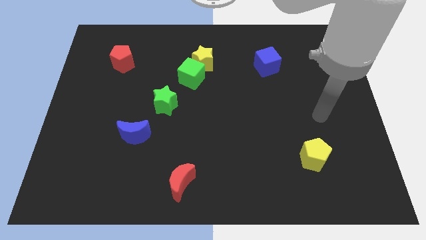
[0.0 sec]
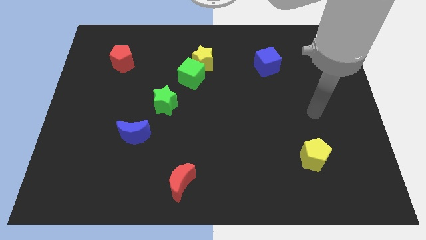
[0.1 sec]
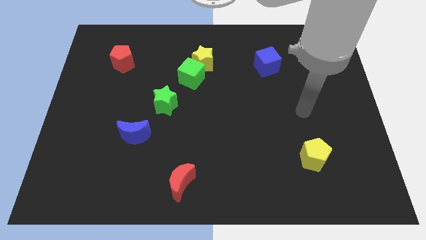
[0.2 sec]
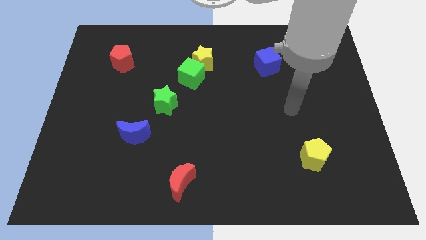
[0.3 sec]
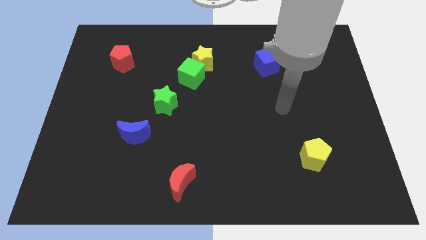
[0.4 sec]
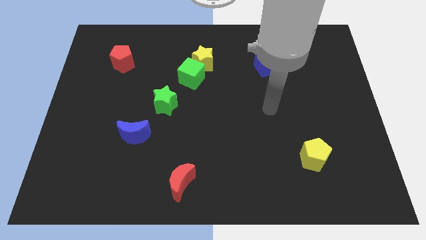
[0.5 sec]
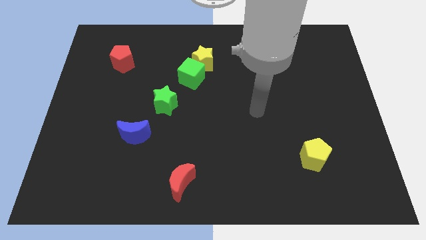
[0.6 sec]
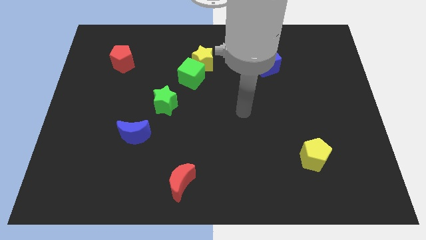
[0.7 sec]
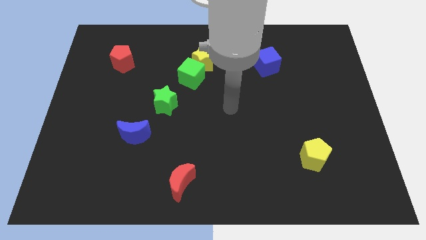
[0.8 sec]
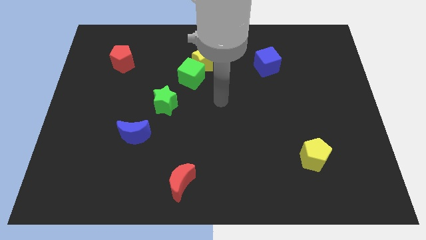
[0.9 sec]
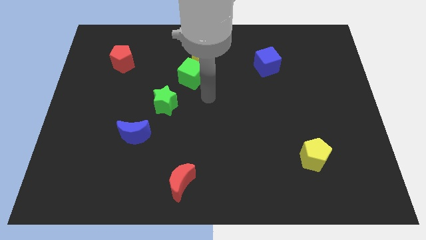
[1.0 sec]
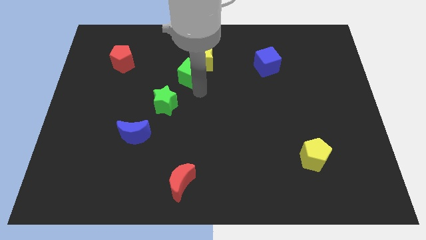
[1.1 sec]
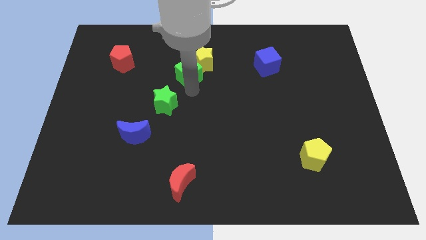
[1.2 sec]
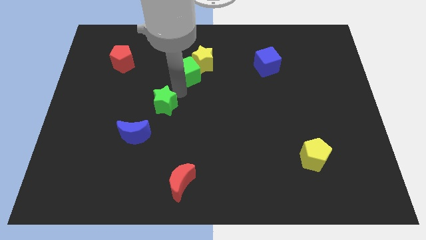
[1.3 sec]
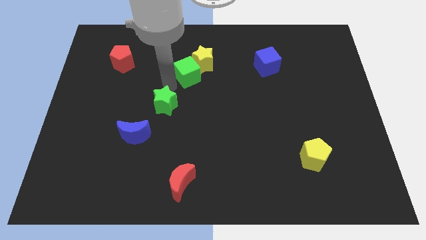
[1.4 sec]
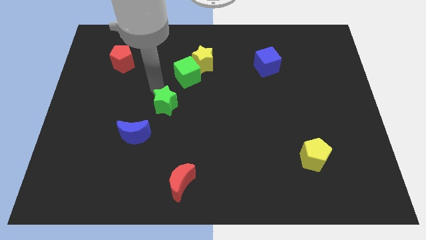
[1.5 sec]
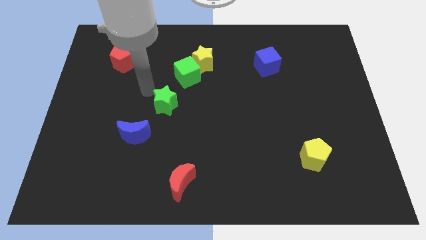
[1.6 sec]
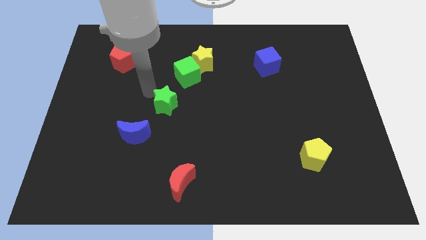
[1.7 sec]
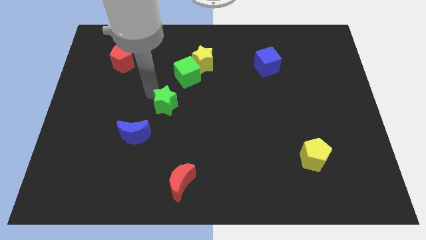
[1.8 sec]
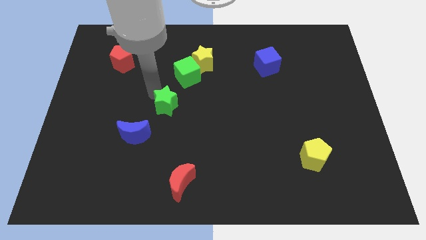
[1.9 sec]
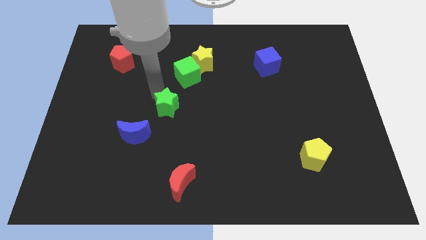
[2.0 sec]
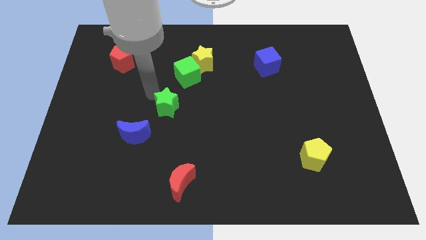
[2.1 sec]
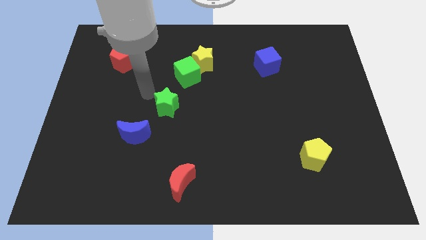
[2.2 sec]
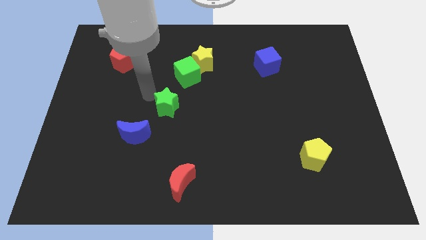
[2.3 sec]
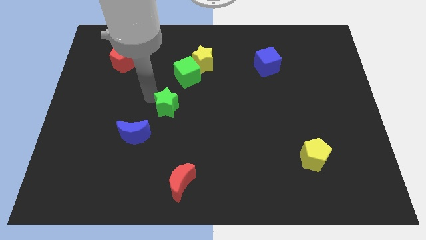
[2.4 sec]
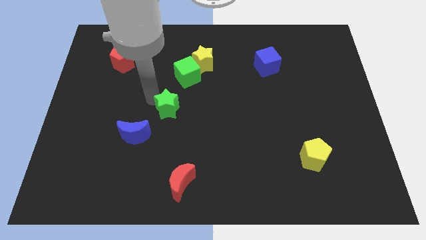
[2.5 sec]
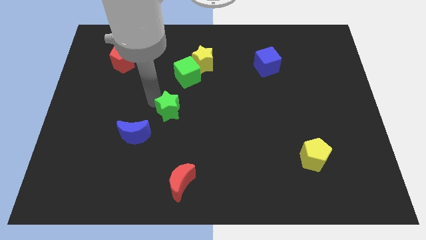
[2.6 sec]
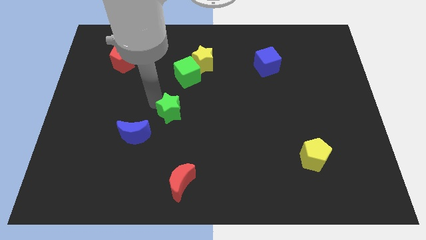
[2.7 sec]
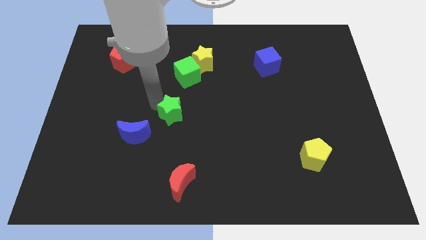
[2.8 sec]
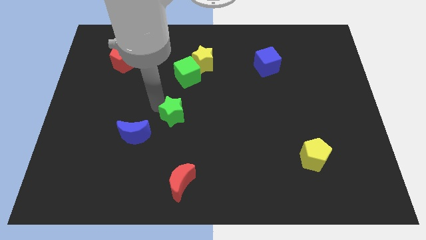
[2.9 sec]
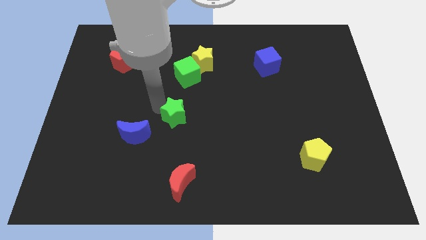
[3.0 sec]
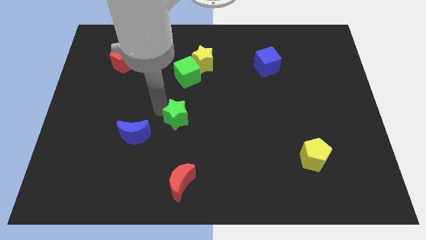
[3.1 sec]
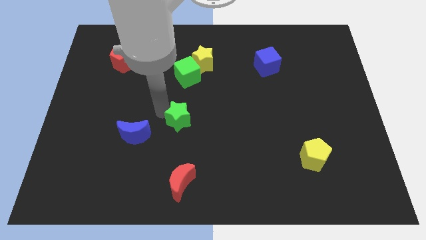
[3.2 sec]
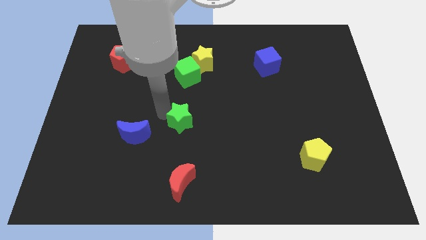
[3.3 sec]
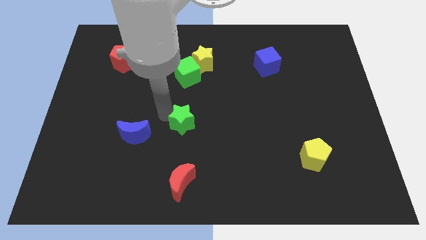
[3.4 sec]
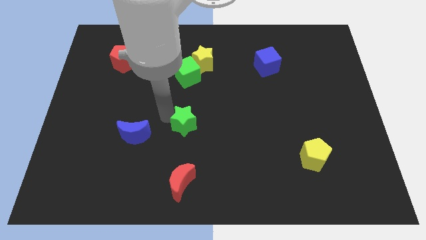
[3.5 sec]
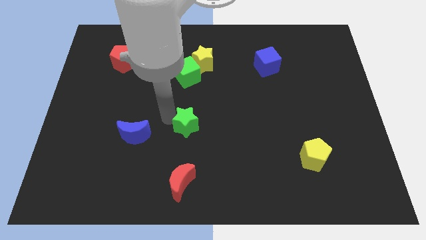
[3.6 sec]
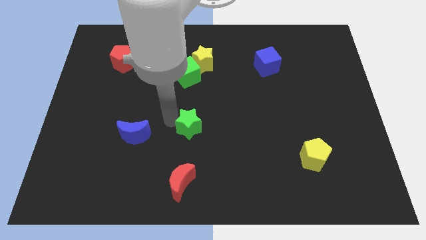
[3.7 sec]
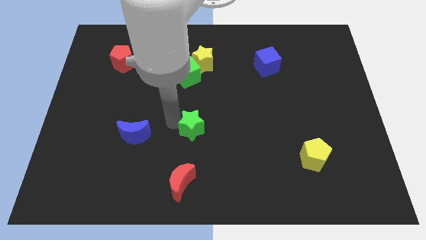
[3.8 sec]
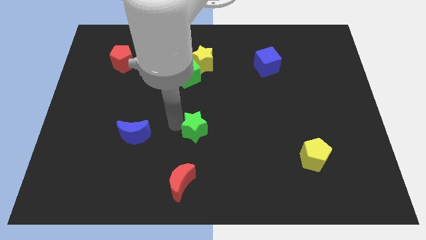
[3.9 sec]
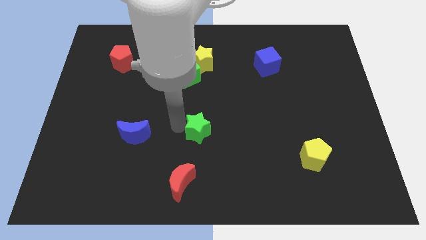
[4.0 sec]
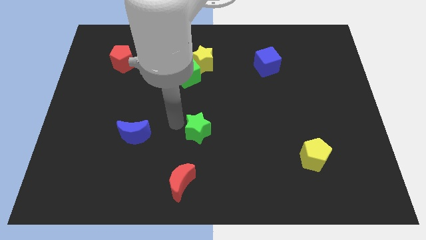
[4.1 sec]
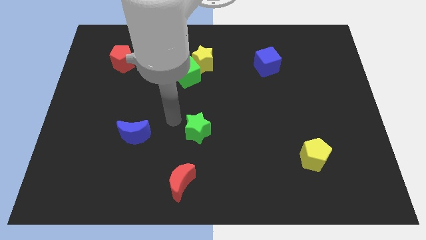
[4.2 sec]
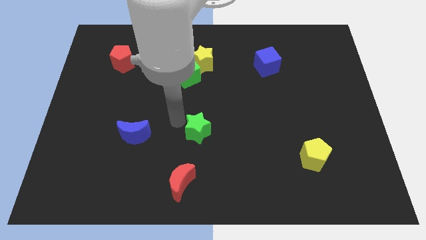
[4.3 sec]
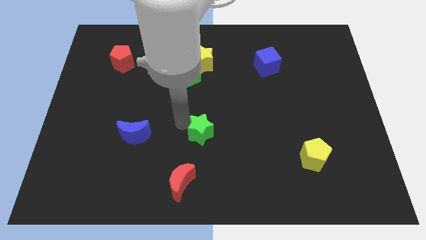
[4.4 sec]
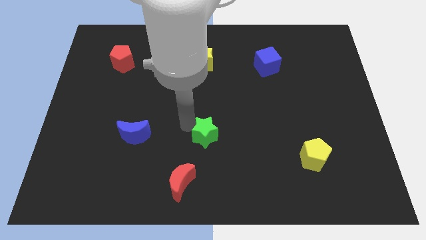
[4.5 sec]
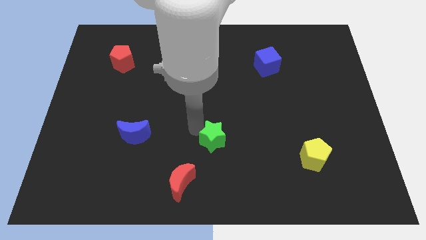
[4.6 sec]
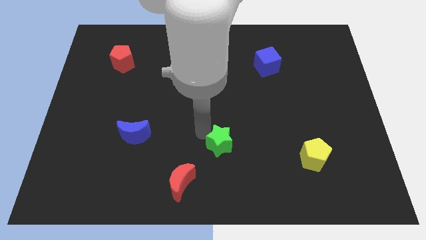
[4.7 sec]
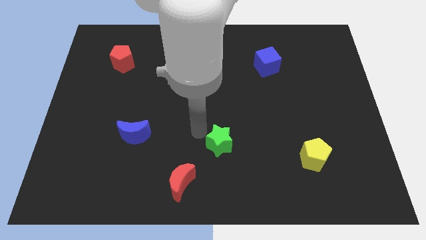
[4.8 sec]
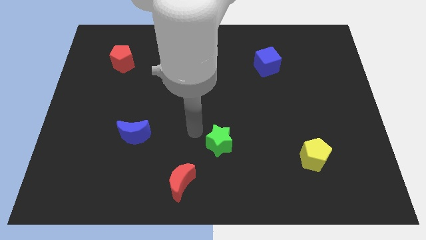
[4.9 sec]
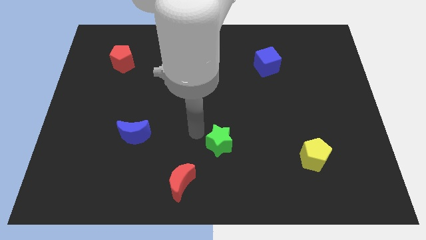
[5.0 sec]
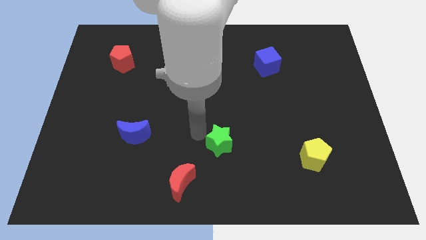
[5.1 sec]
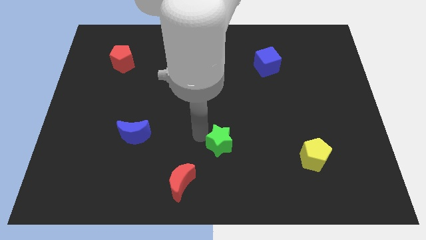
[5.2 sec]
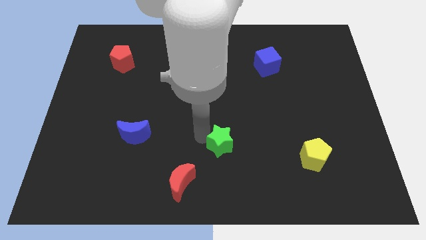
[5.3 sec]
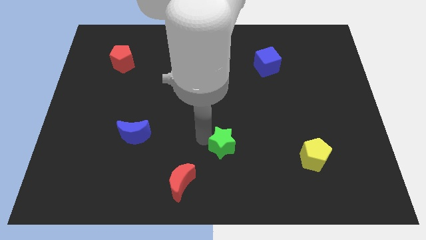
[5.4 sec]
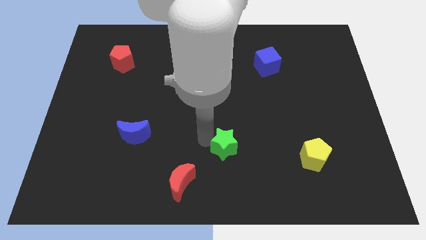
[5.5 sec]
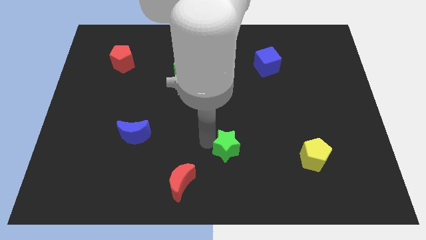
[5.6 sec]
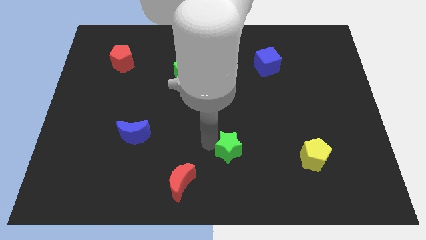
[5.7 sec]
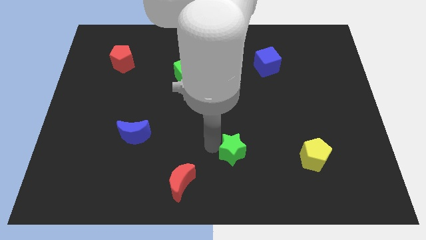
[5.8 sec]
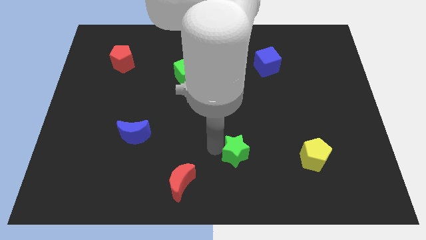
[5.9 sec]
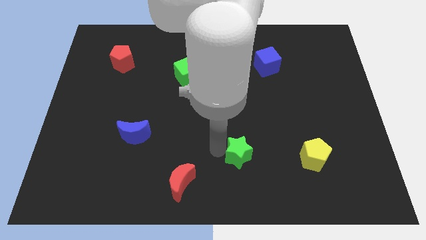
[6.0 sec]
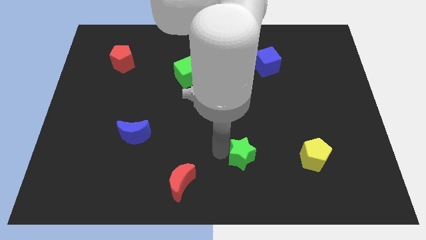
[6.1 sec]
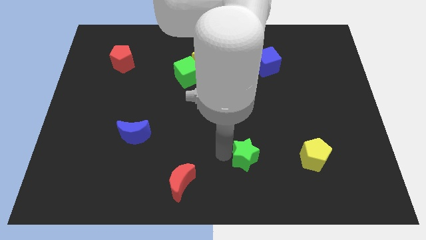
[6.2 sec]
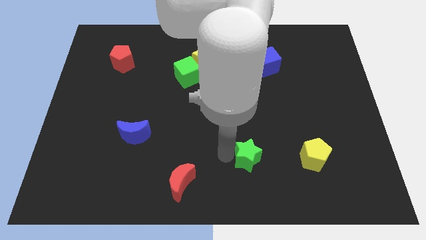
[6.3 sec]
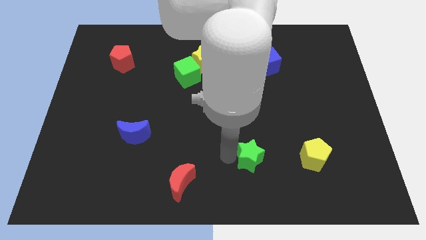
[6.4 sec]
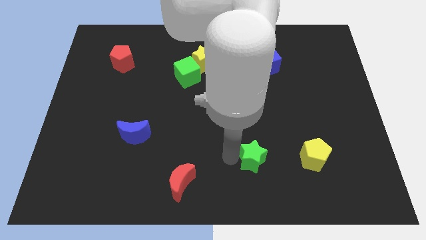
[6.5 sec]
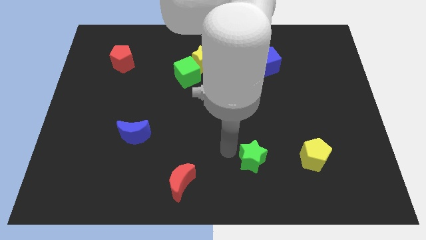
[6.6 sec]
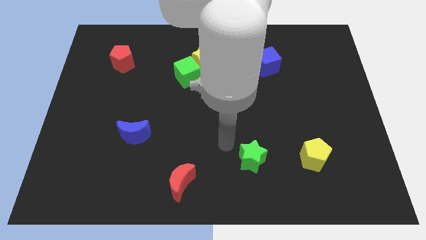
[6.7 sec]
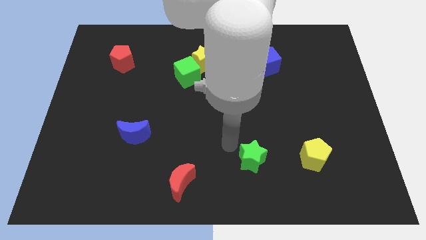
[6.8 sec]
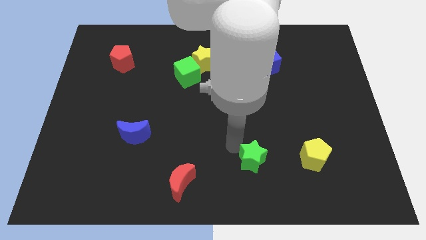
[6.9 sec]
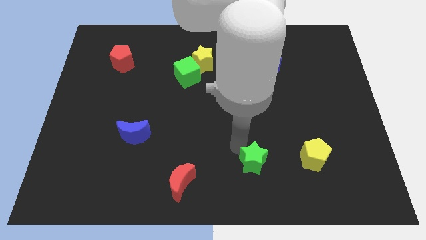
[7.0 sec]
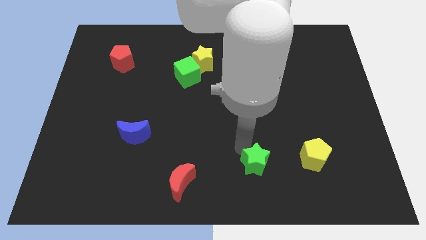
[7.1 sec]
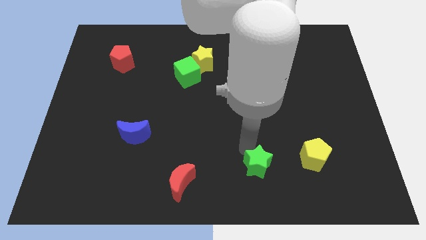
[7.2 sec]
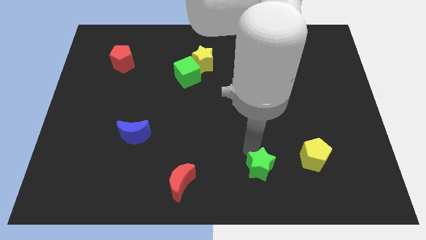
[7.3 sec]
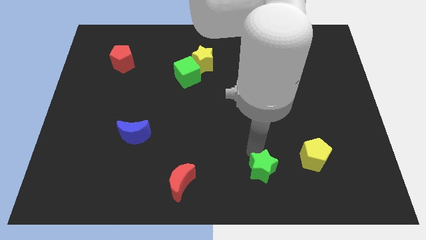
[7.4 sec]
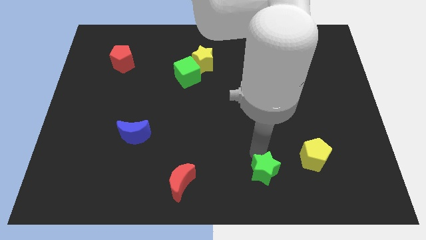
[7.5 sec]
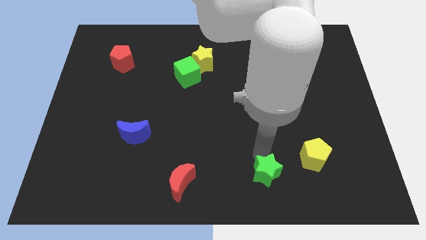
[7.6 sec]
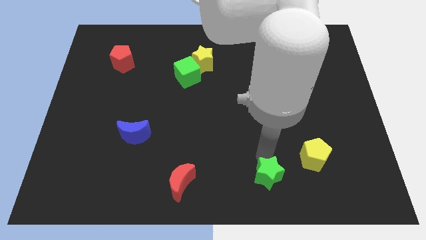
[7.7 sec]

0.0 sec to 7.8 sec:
move the green star diagonally down and to the left of the yellow pentagon
